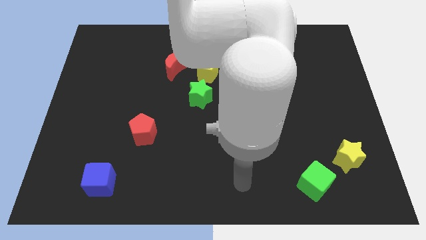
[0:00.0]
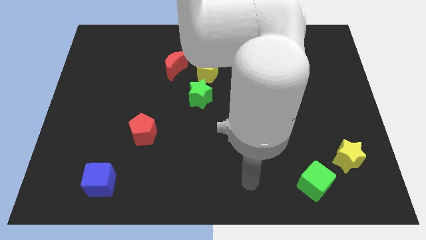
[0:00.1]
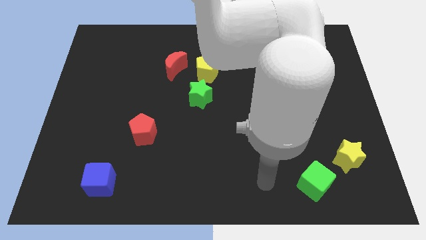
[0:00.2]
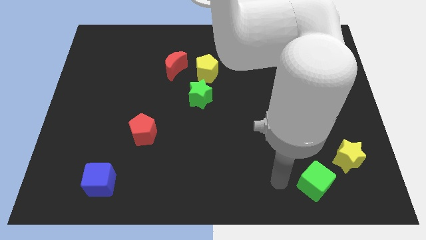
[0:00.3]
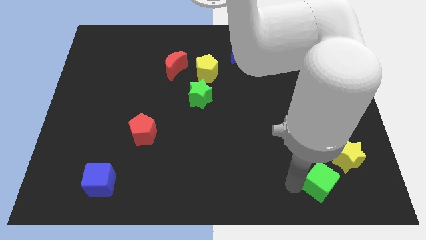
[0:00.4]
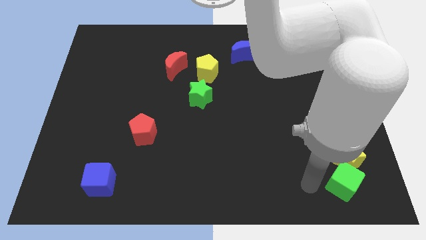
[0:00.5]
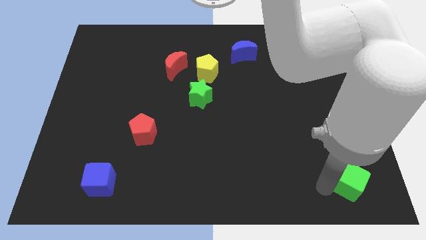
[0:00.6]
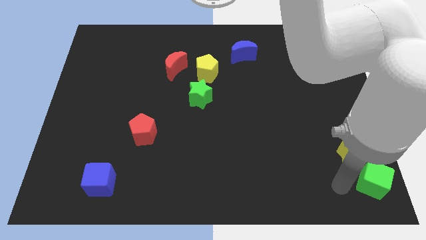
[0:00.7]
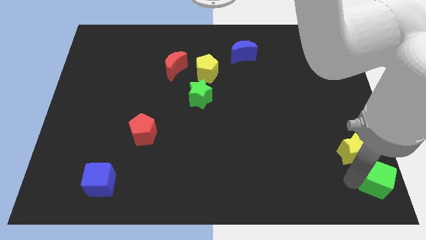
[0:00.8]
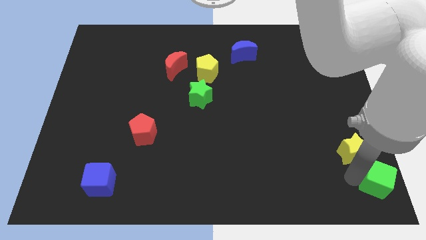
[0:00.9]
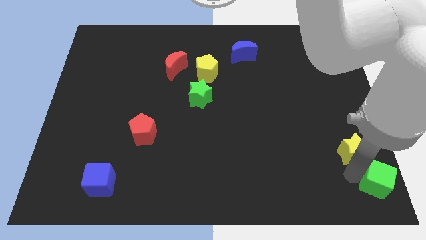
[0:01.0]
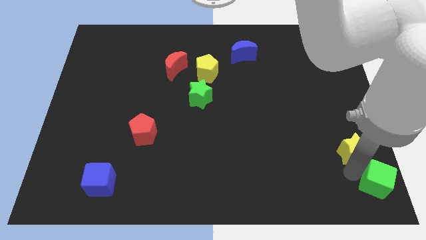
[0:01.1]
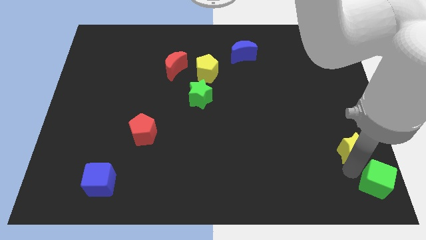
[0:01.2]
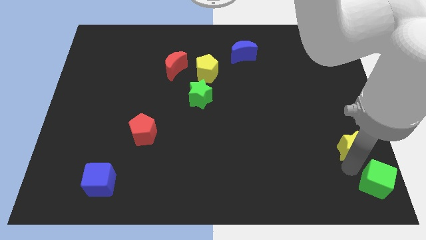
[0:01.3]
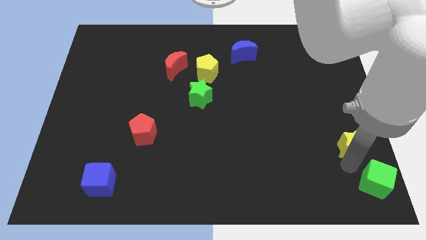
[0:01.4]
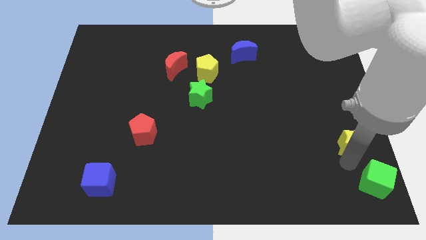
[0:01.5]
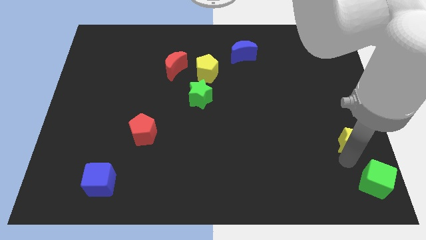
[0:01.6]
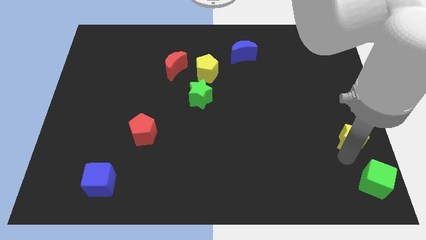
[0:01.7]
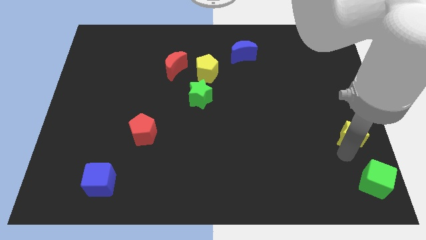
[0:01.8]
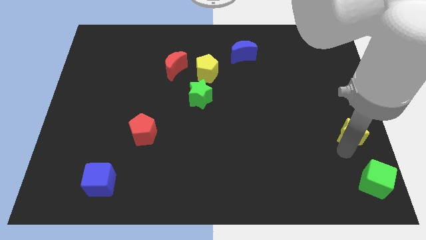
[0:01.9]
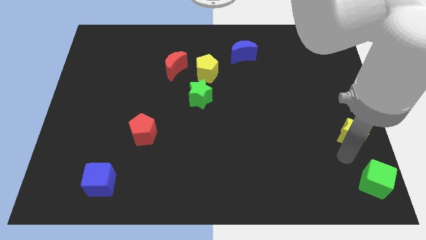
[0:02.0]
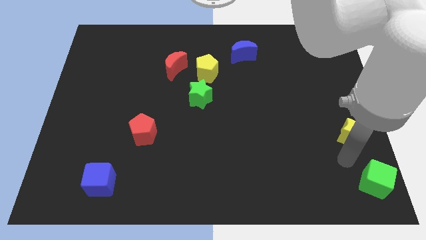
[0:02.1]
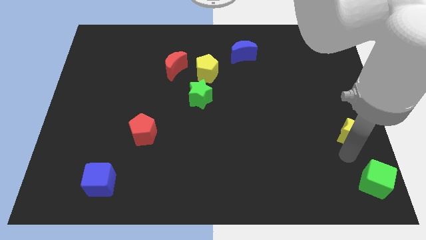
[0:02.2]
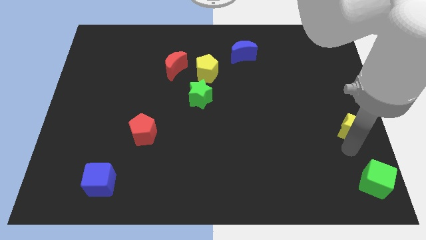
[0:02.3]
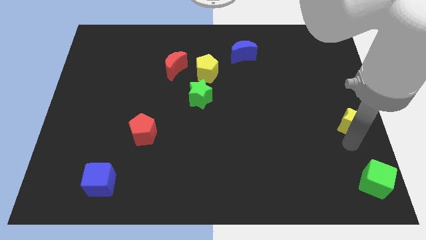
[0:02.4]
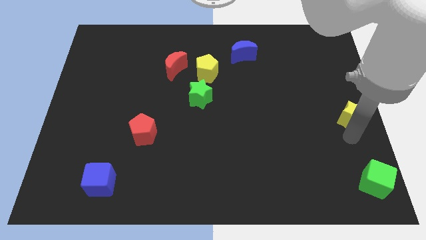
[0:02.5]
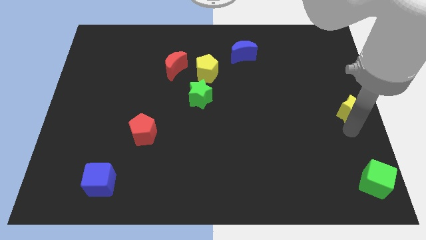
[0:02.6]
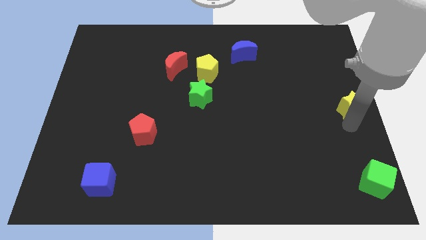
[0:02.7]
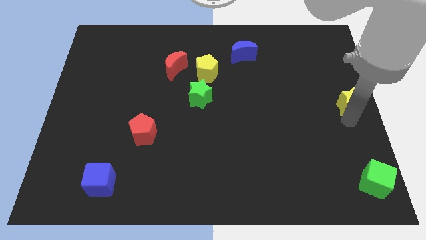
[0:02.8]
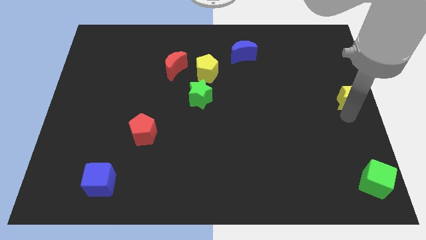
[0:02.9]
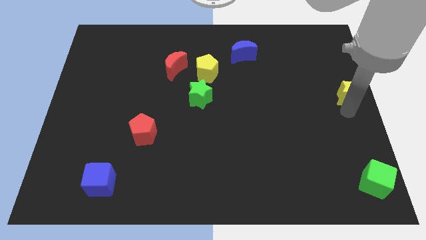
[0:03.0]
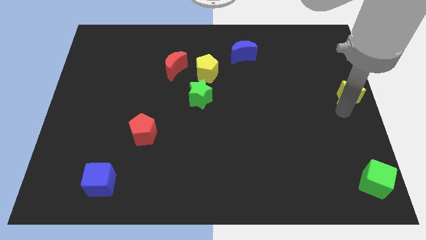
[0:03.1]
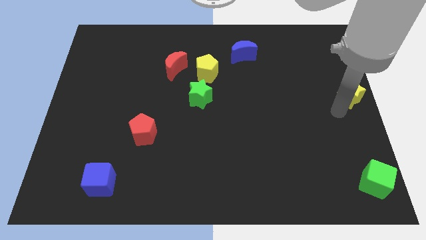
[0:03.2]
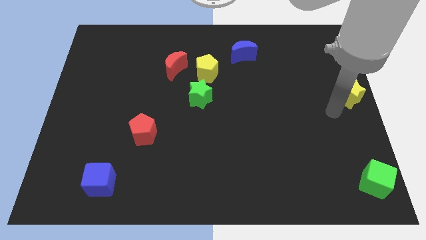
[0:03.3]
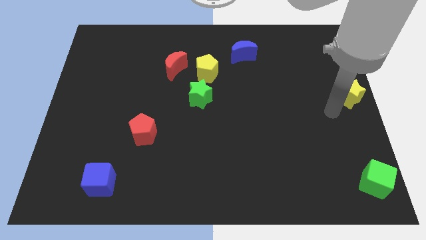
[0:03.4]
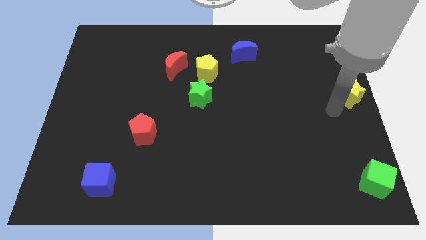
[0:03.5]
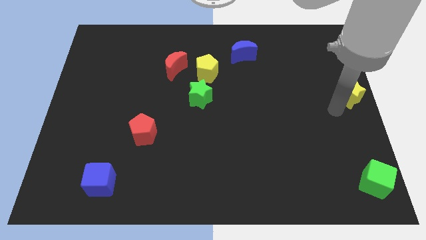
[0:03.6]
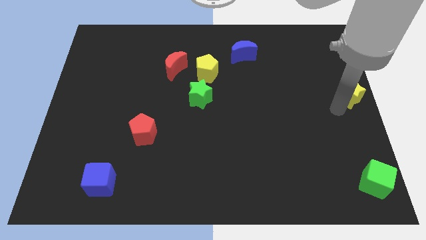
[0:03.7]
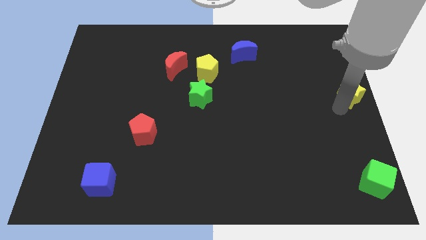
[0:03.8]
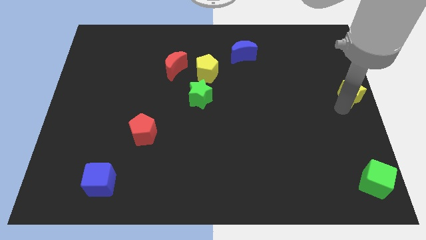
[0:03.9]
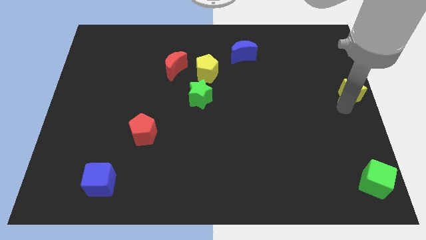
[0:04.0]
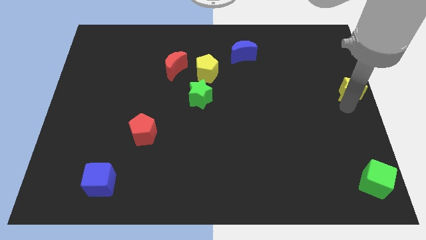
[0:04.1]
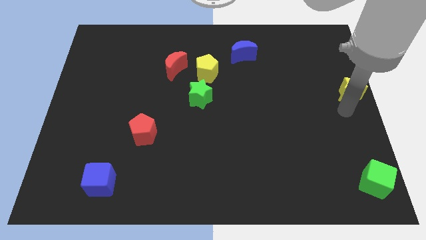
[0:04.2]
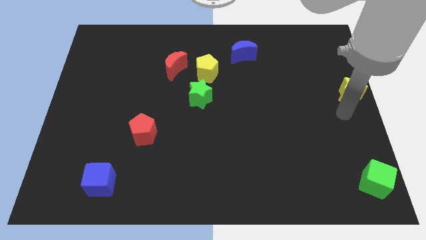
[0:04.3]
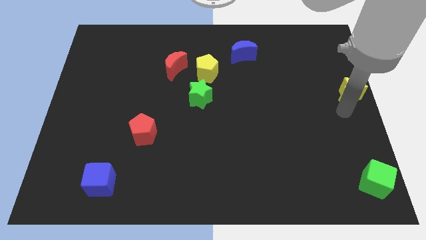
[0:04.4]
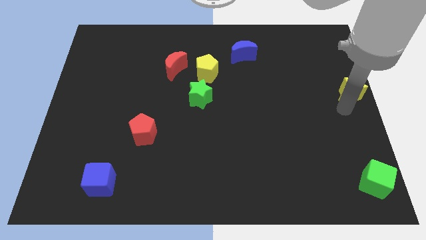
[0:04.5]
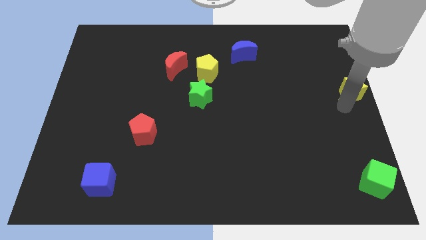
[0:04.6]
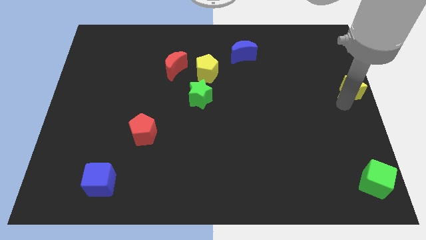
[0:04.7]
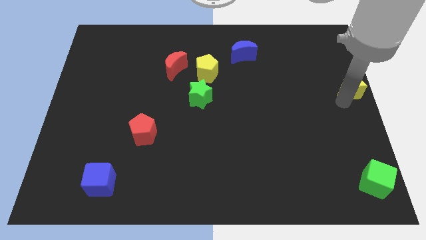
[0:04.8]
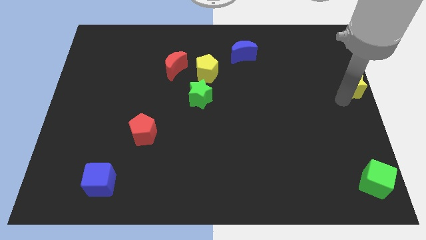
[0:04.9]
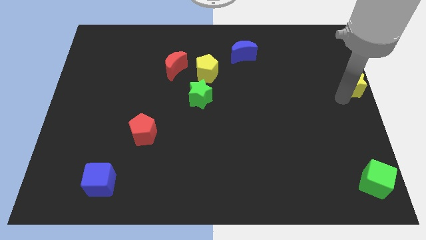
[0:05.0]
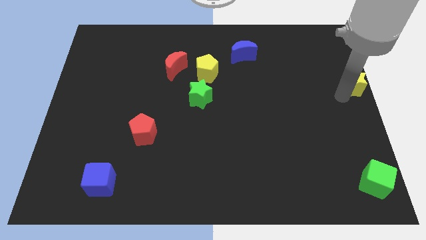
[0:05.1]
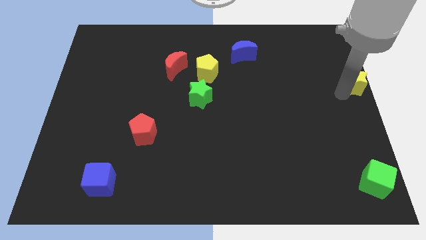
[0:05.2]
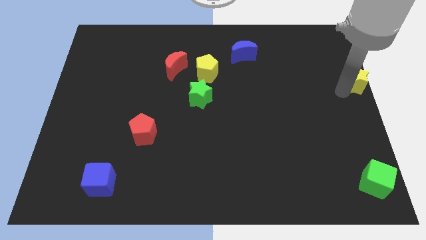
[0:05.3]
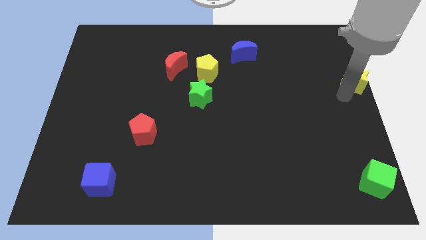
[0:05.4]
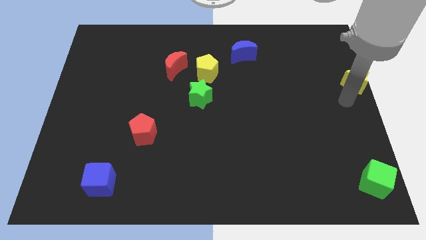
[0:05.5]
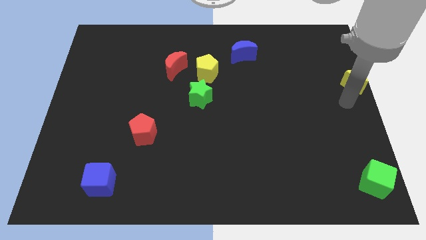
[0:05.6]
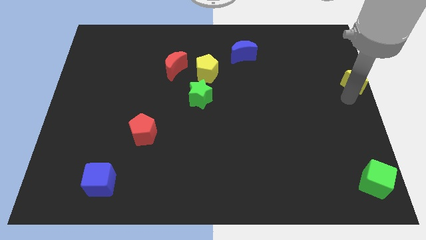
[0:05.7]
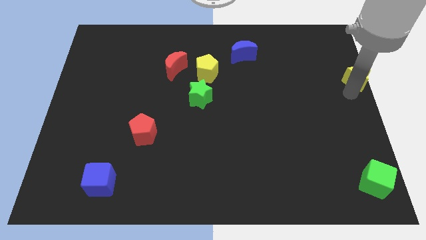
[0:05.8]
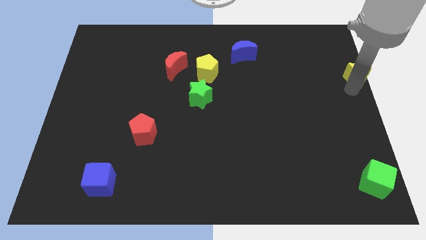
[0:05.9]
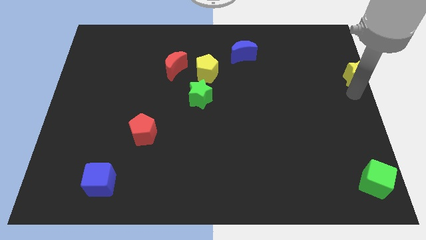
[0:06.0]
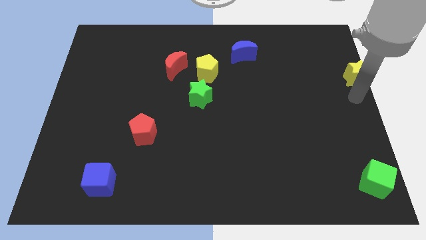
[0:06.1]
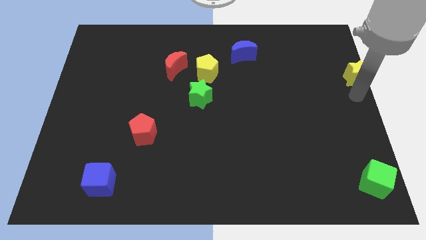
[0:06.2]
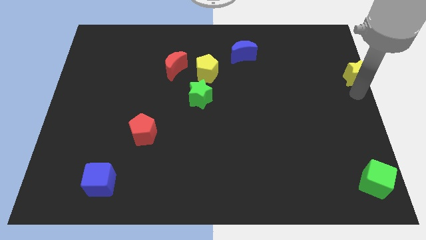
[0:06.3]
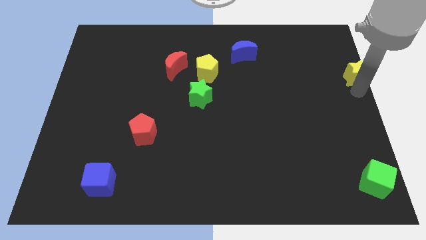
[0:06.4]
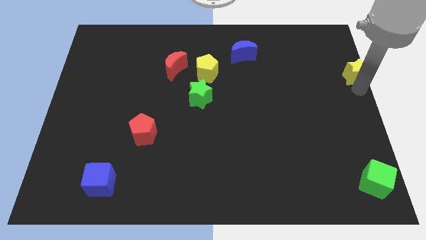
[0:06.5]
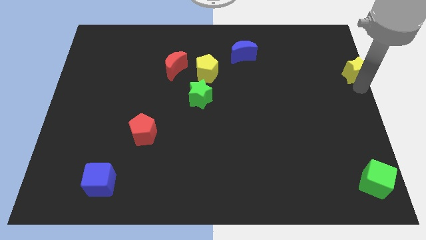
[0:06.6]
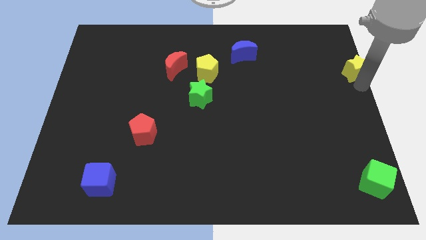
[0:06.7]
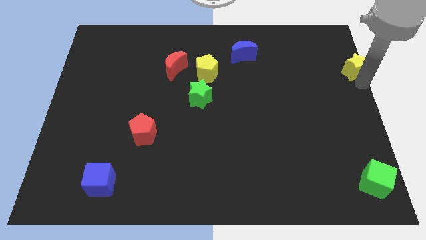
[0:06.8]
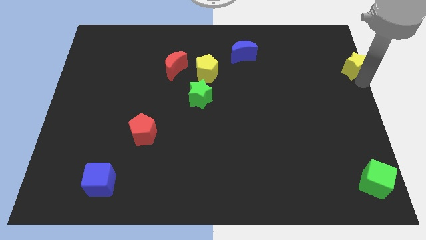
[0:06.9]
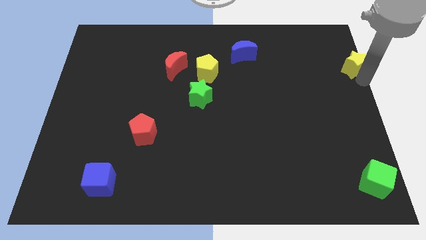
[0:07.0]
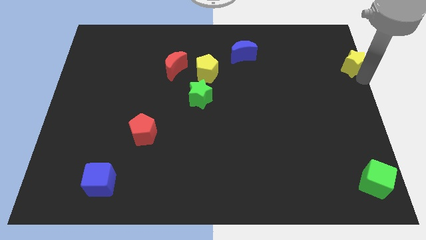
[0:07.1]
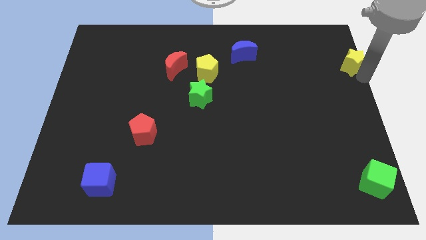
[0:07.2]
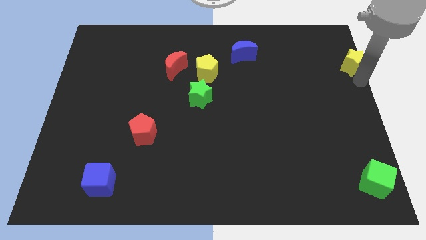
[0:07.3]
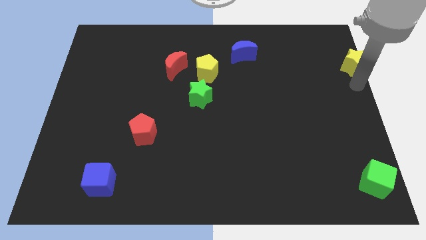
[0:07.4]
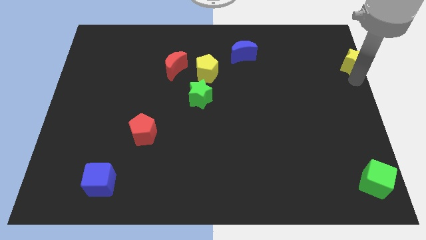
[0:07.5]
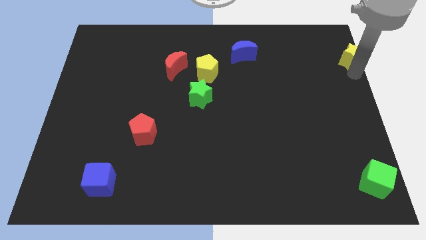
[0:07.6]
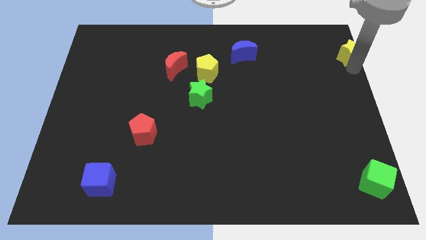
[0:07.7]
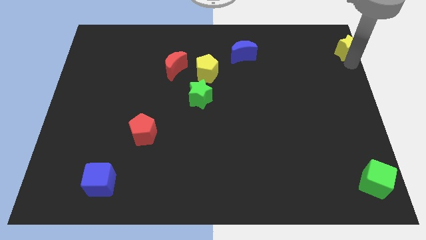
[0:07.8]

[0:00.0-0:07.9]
push the yellow star to the top right of the board

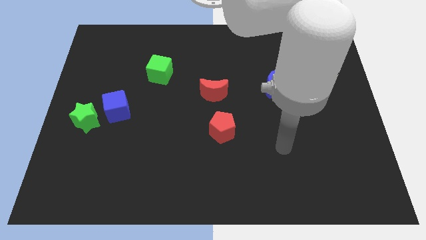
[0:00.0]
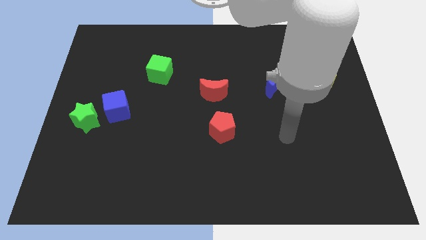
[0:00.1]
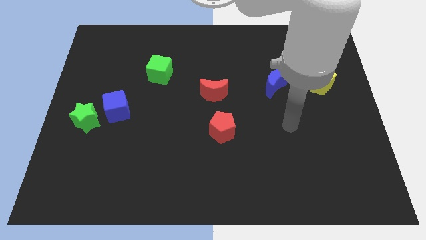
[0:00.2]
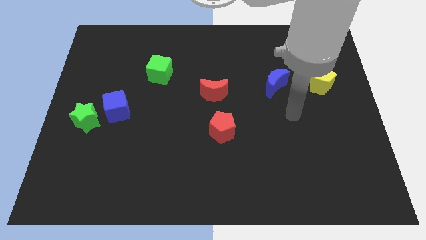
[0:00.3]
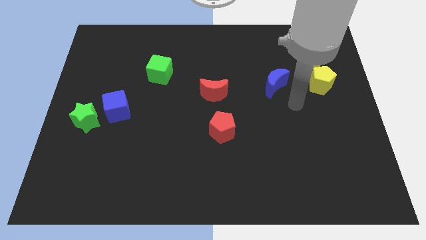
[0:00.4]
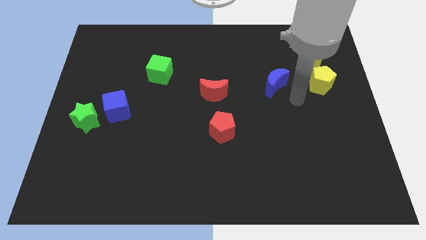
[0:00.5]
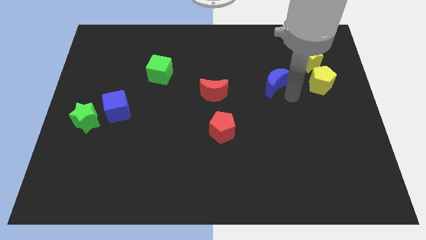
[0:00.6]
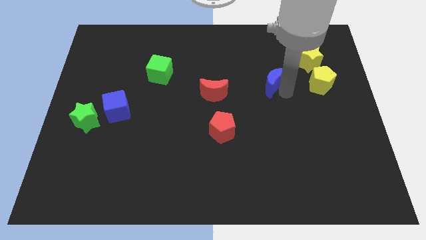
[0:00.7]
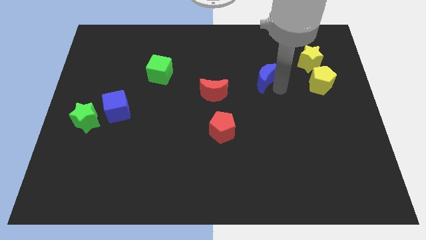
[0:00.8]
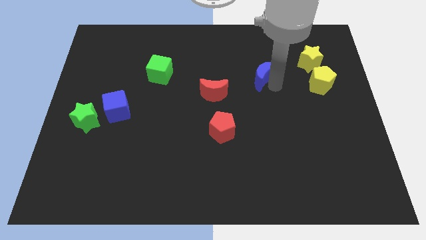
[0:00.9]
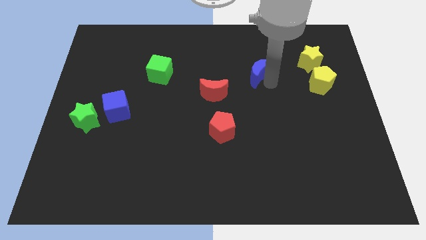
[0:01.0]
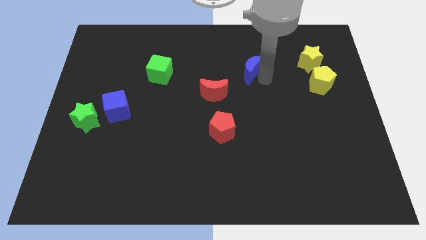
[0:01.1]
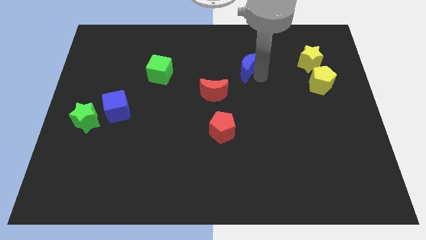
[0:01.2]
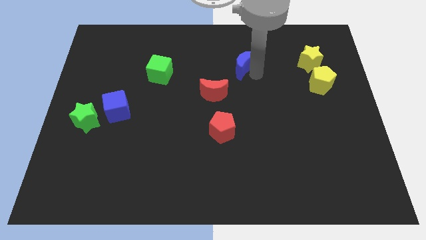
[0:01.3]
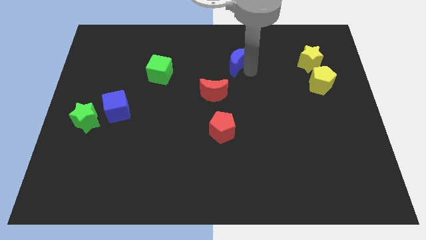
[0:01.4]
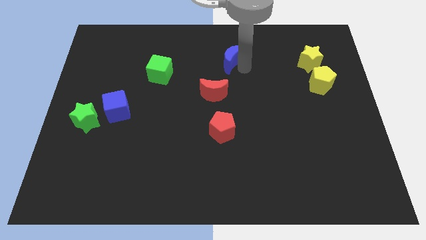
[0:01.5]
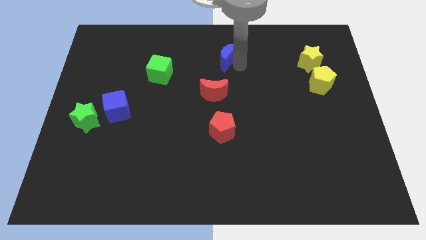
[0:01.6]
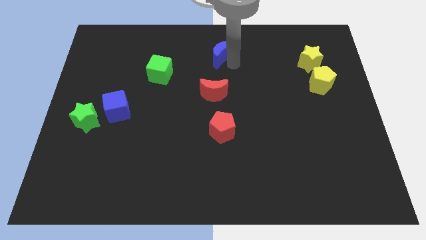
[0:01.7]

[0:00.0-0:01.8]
move the blue moon to the top side
